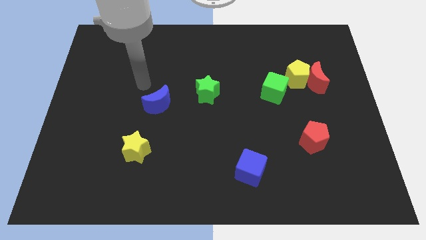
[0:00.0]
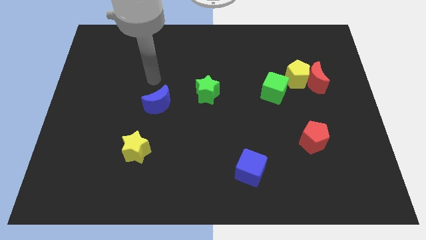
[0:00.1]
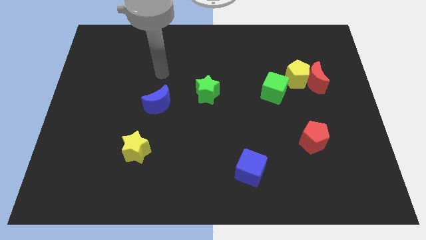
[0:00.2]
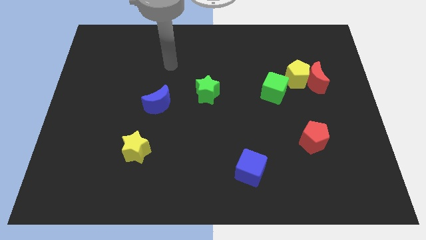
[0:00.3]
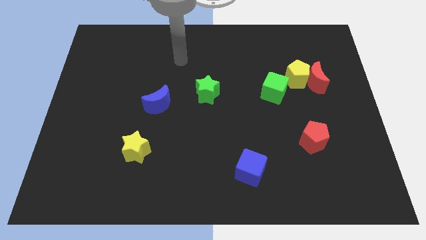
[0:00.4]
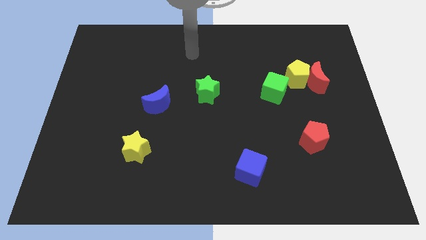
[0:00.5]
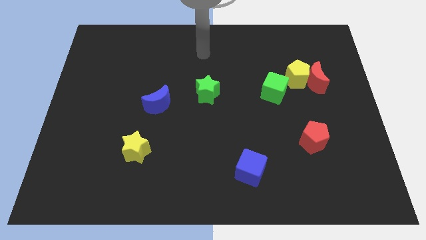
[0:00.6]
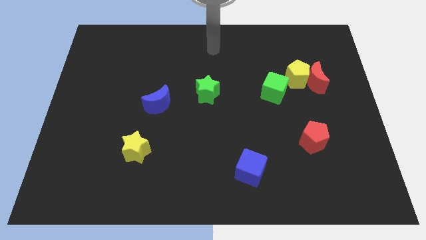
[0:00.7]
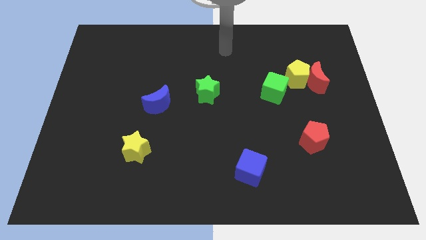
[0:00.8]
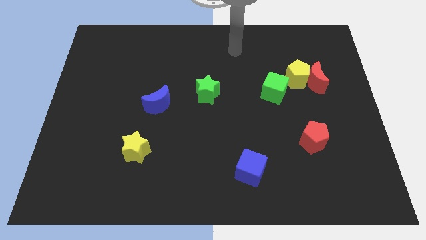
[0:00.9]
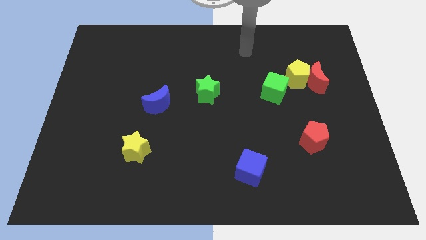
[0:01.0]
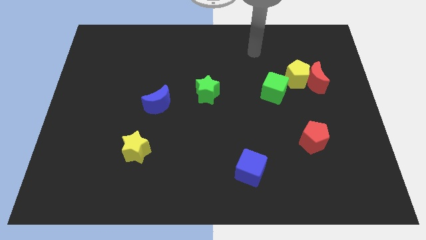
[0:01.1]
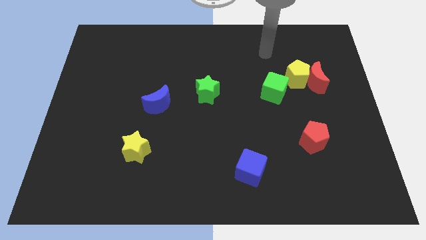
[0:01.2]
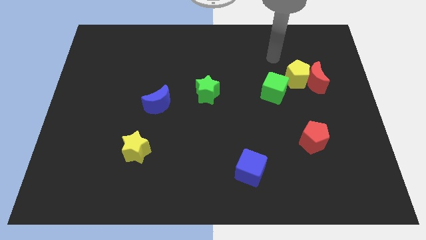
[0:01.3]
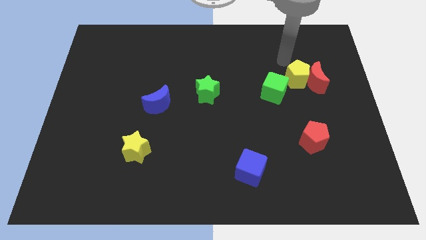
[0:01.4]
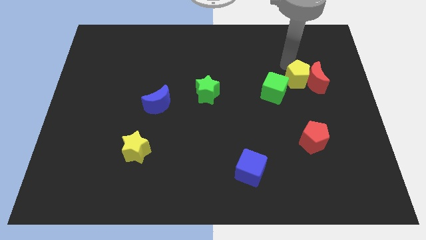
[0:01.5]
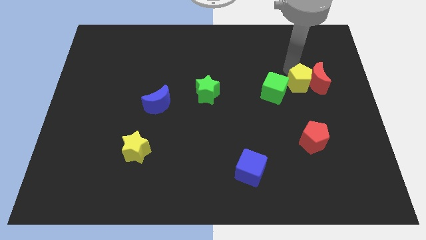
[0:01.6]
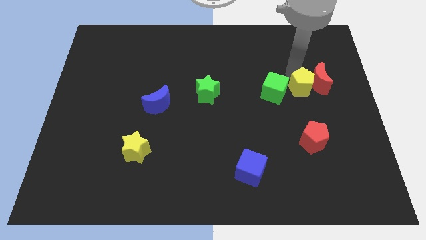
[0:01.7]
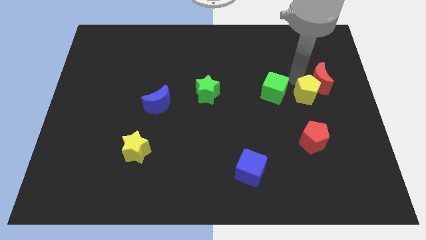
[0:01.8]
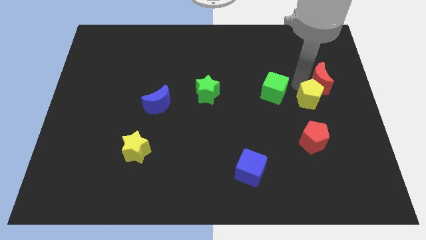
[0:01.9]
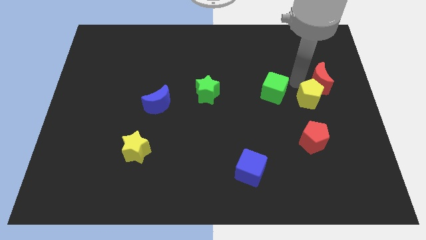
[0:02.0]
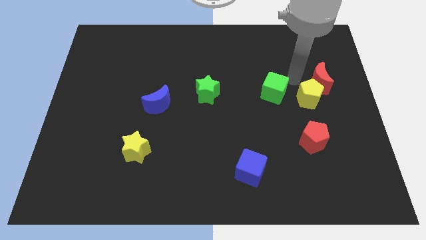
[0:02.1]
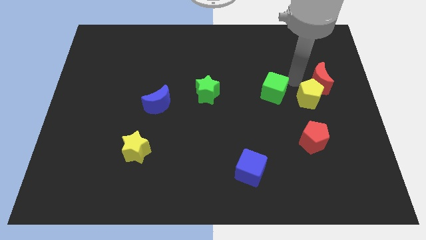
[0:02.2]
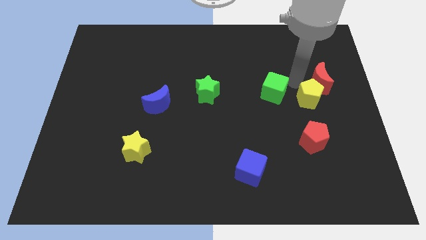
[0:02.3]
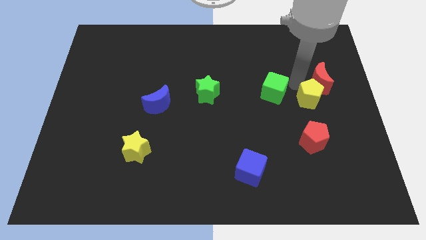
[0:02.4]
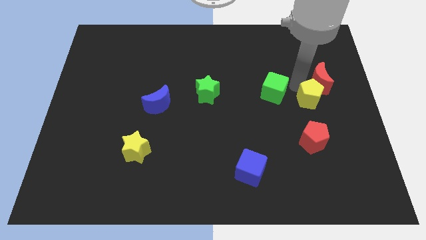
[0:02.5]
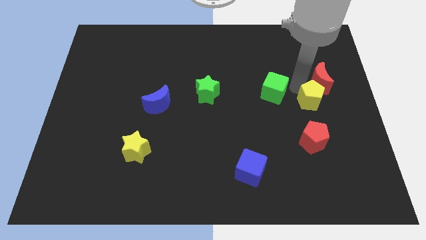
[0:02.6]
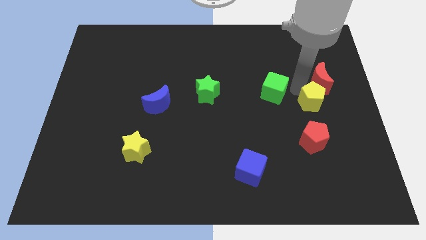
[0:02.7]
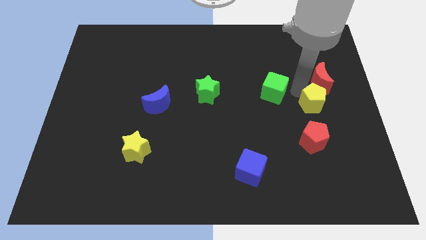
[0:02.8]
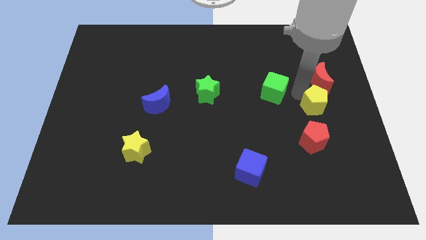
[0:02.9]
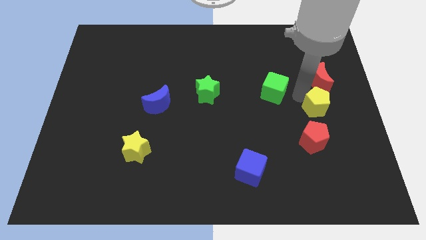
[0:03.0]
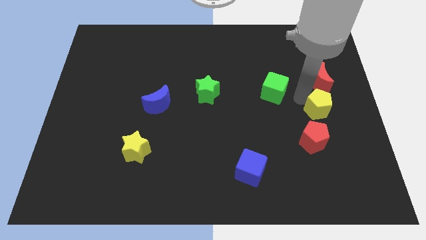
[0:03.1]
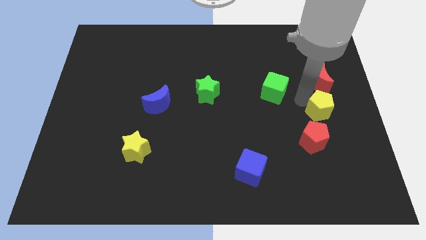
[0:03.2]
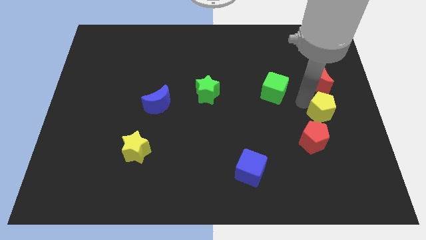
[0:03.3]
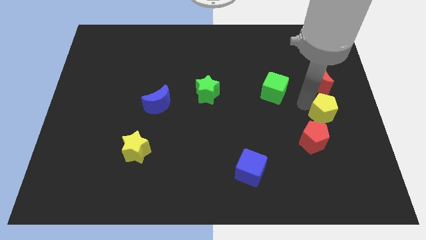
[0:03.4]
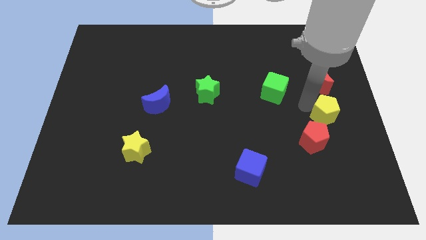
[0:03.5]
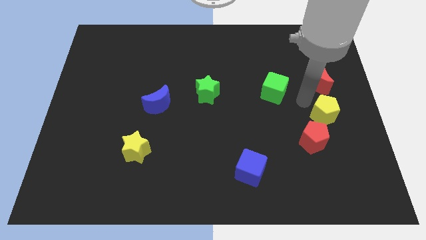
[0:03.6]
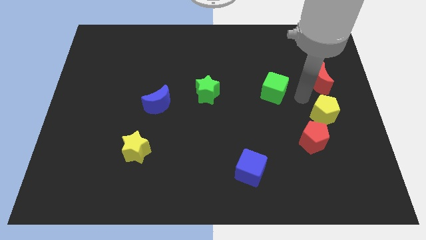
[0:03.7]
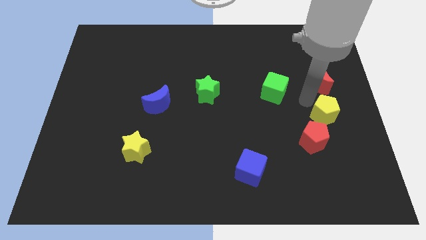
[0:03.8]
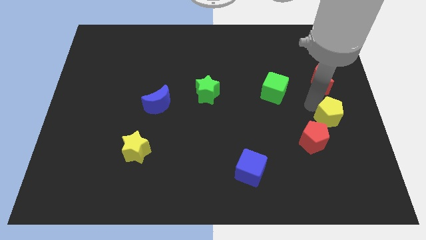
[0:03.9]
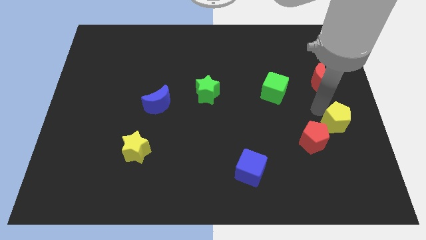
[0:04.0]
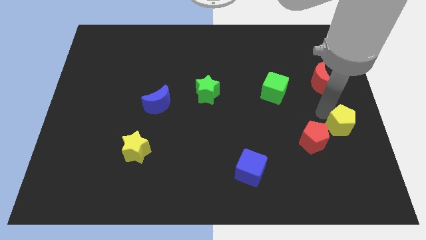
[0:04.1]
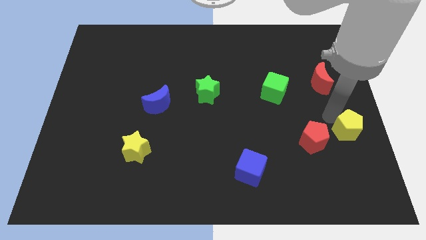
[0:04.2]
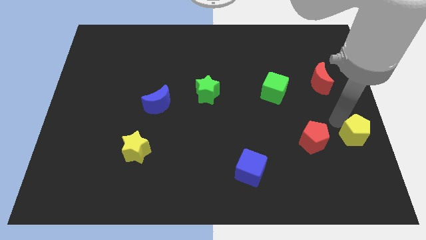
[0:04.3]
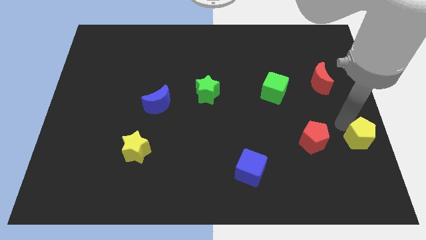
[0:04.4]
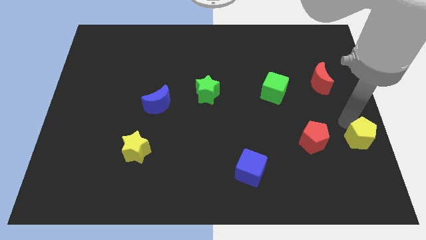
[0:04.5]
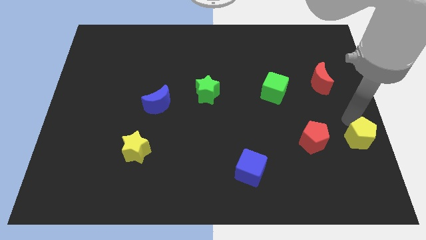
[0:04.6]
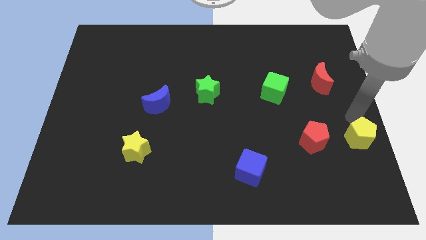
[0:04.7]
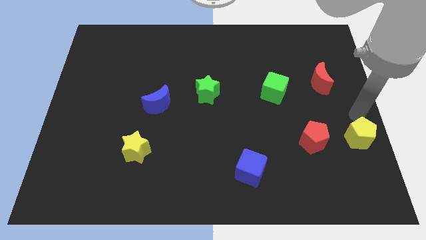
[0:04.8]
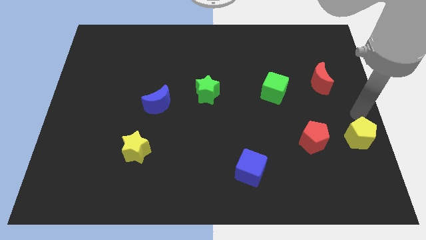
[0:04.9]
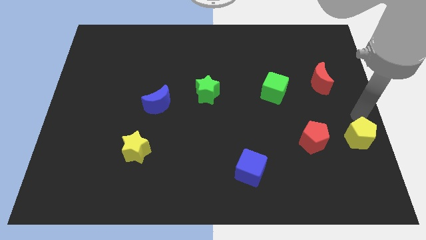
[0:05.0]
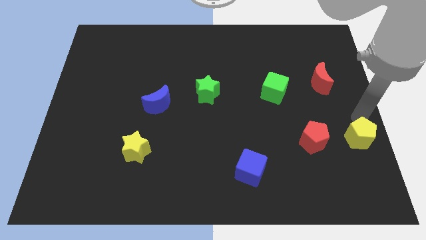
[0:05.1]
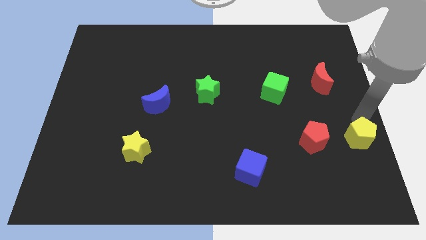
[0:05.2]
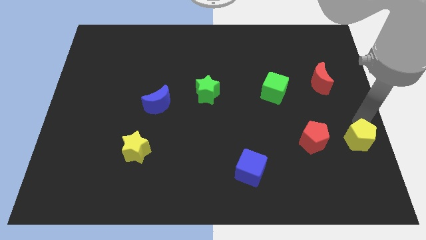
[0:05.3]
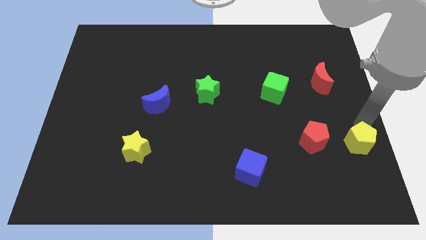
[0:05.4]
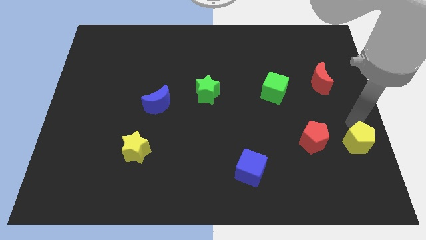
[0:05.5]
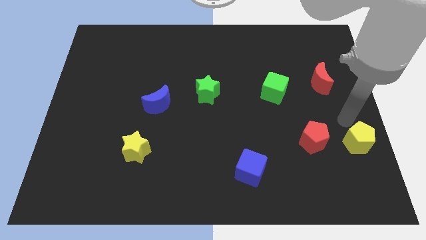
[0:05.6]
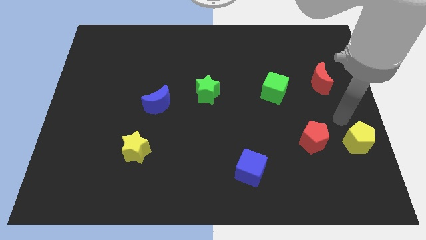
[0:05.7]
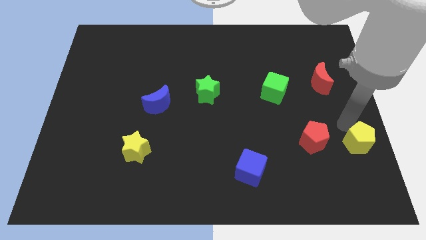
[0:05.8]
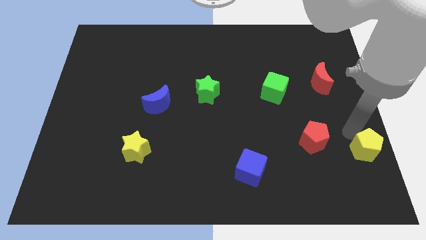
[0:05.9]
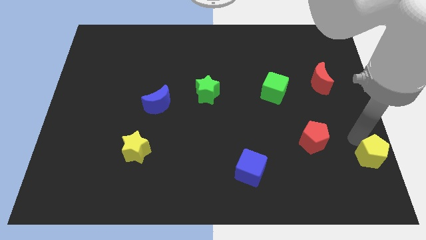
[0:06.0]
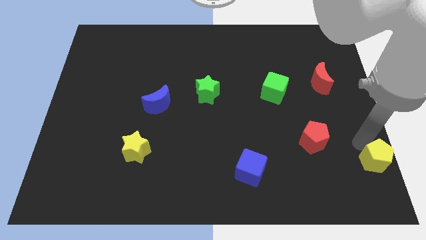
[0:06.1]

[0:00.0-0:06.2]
slide the yellow pentagon to the bottom right of the board

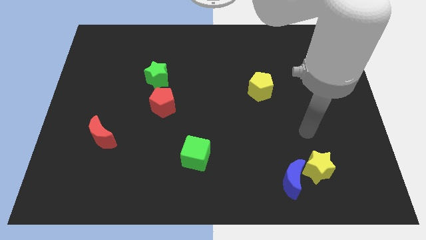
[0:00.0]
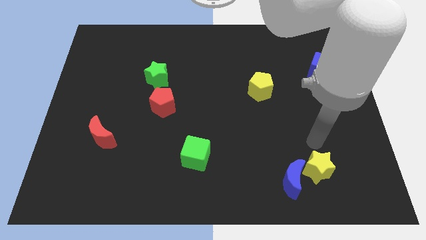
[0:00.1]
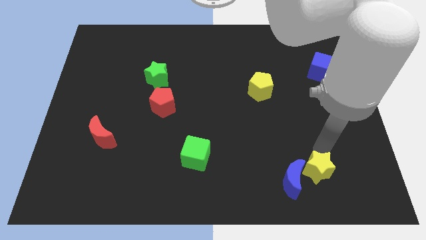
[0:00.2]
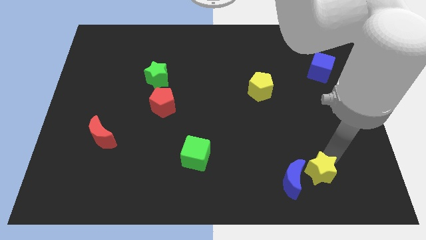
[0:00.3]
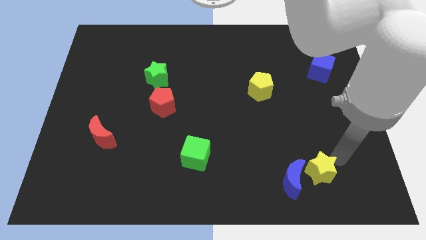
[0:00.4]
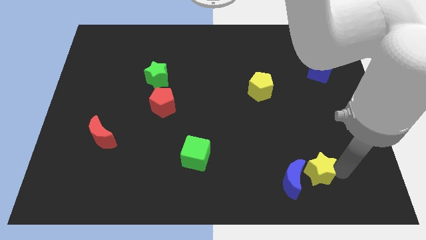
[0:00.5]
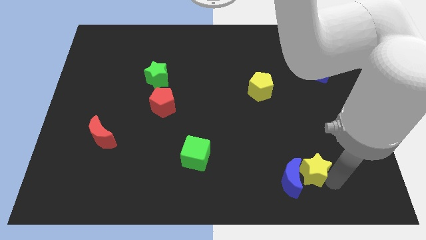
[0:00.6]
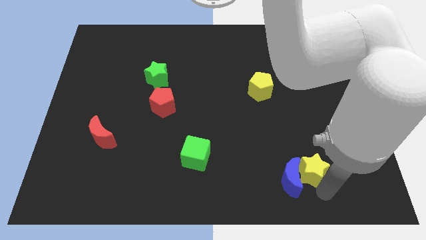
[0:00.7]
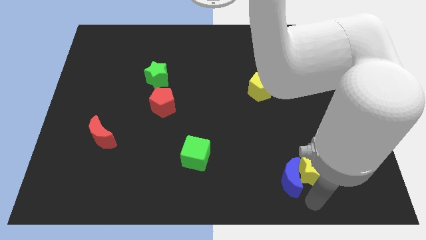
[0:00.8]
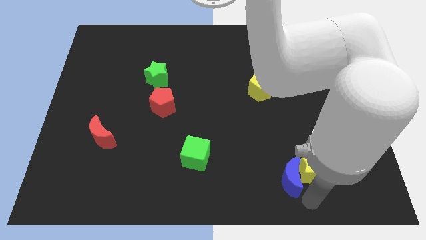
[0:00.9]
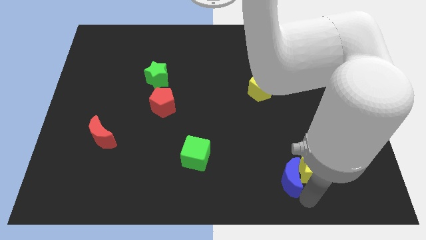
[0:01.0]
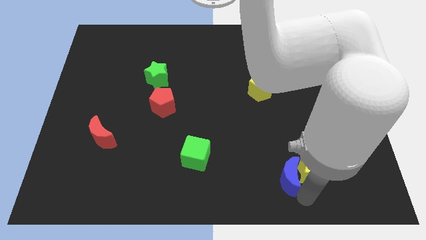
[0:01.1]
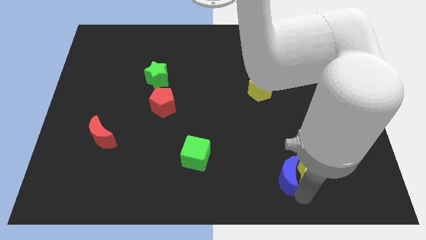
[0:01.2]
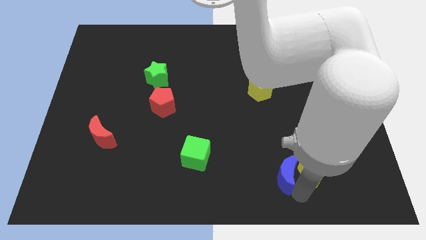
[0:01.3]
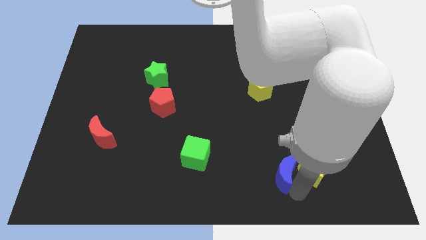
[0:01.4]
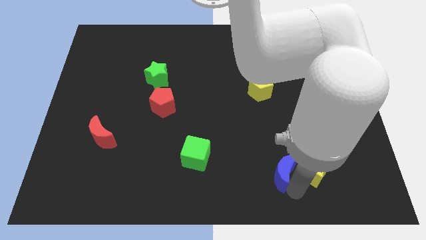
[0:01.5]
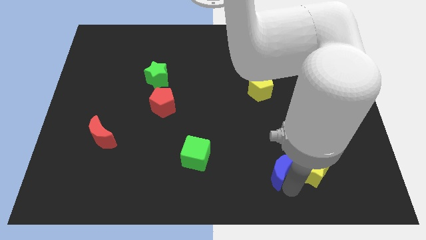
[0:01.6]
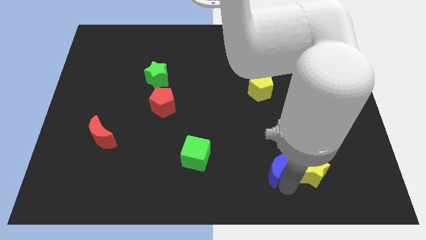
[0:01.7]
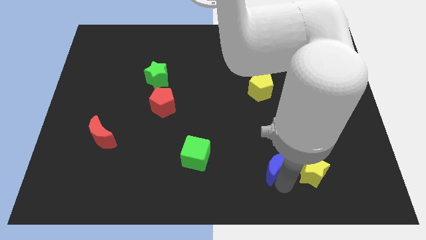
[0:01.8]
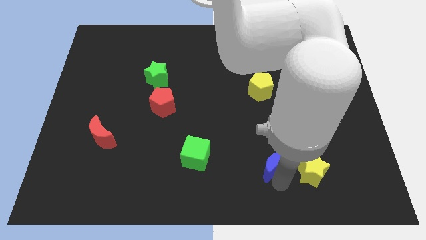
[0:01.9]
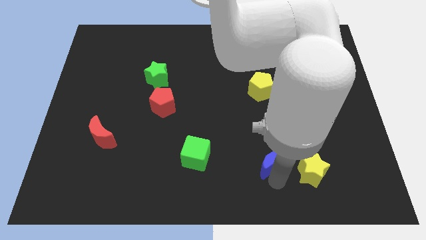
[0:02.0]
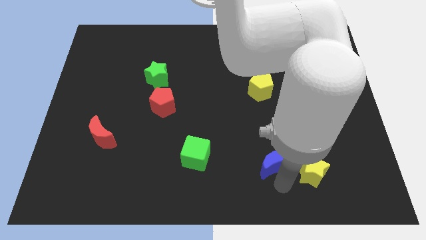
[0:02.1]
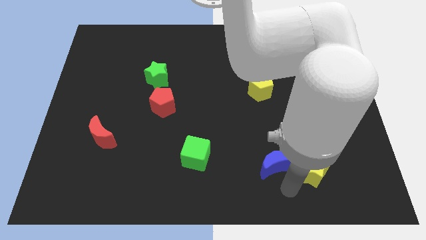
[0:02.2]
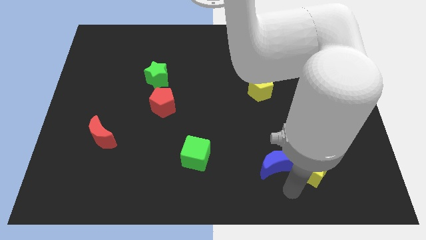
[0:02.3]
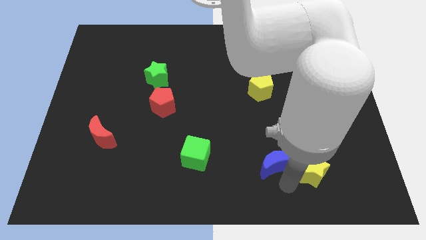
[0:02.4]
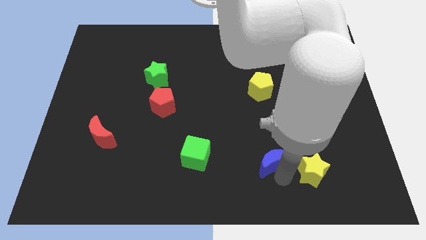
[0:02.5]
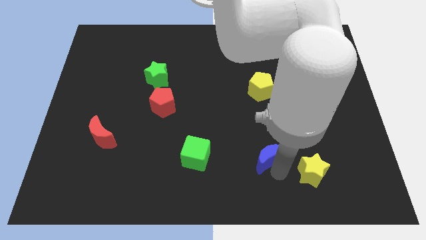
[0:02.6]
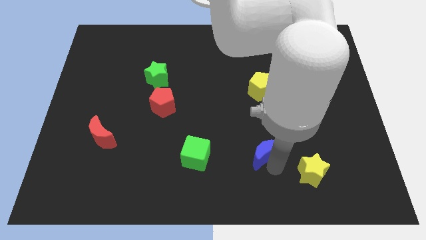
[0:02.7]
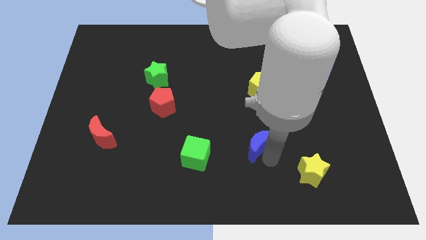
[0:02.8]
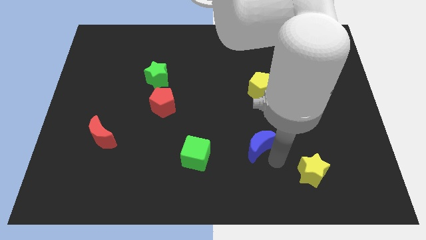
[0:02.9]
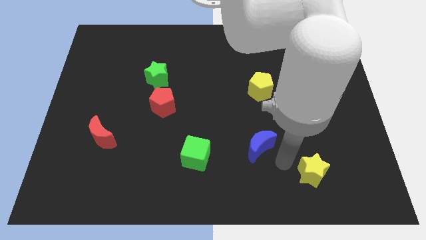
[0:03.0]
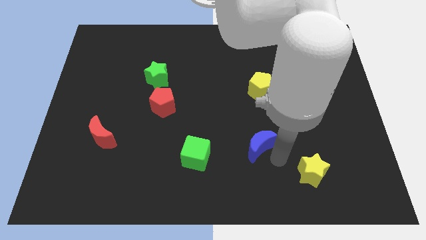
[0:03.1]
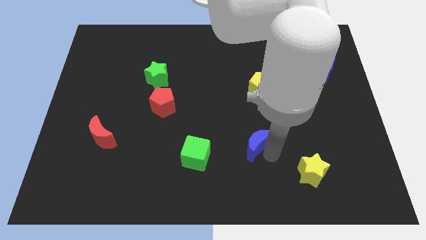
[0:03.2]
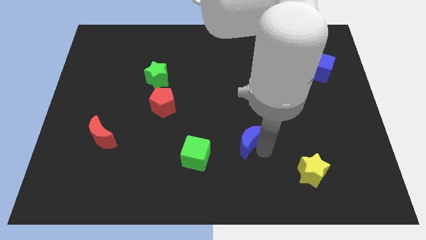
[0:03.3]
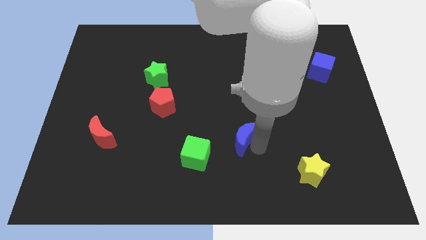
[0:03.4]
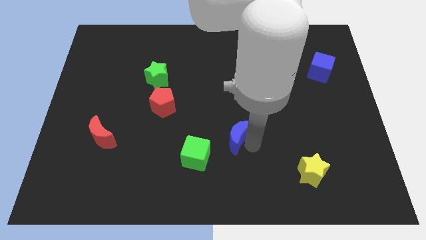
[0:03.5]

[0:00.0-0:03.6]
move the blue moon to the center of the board
